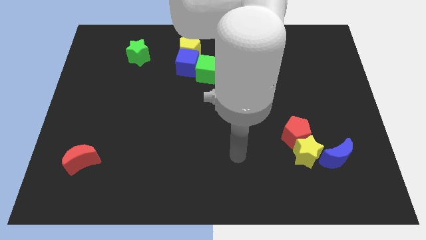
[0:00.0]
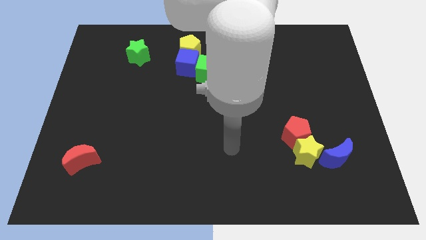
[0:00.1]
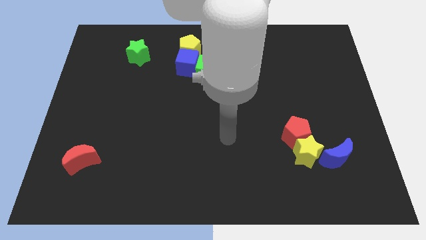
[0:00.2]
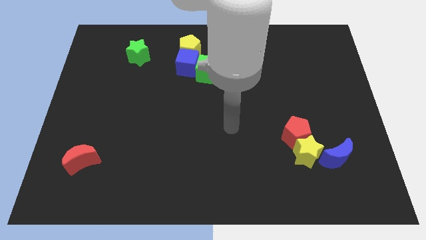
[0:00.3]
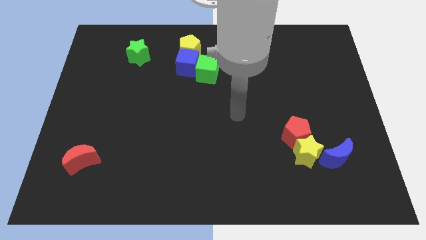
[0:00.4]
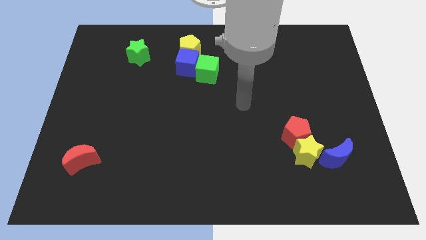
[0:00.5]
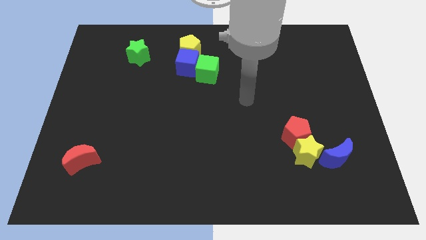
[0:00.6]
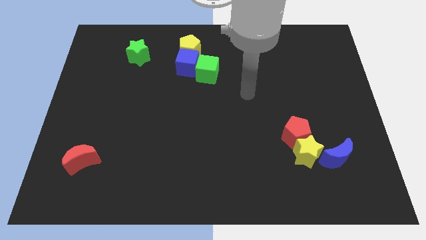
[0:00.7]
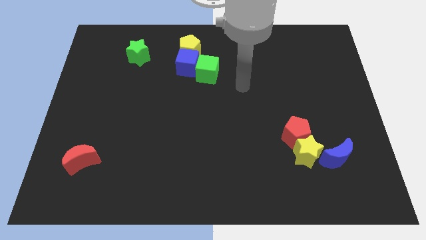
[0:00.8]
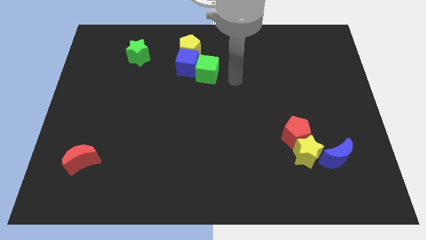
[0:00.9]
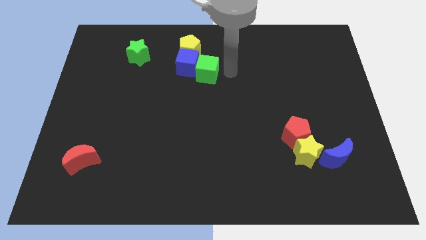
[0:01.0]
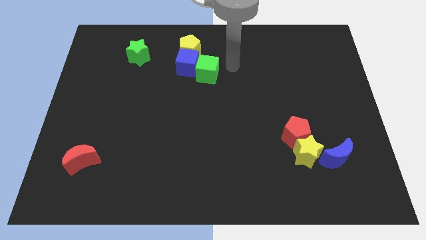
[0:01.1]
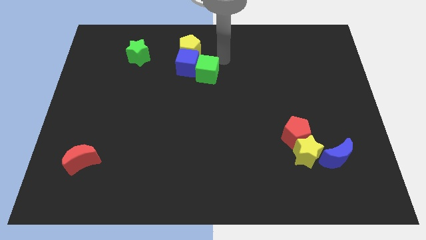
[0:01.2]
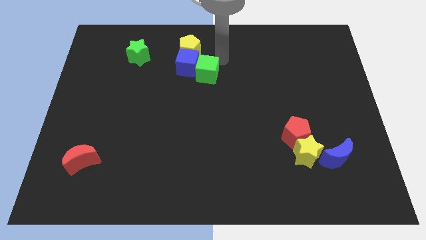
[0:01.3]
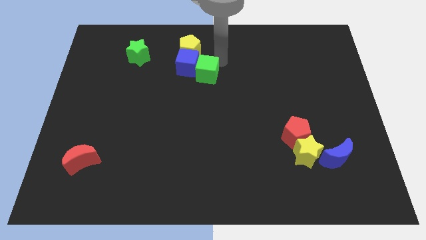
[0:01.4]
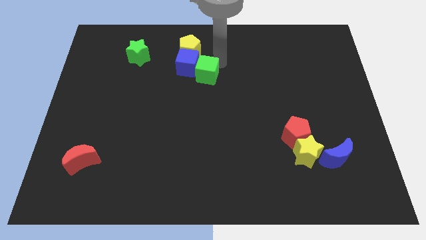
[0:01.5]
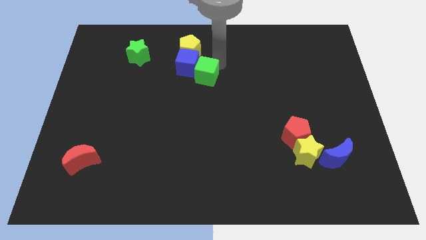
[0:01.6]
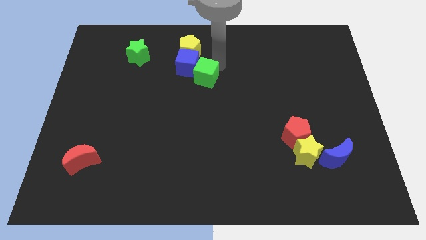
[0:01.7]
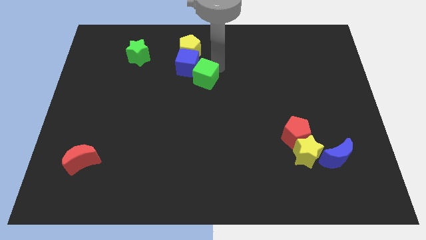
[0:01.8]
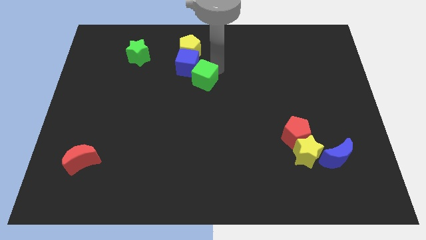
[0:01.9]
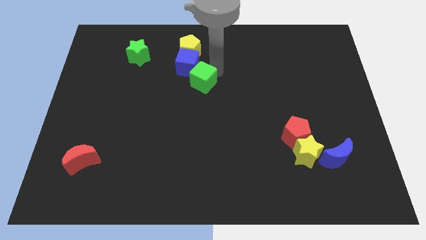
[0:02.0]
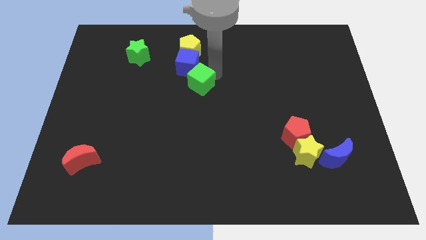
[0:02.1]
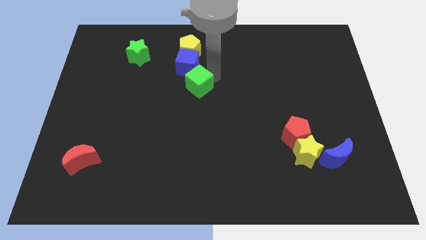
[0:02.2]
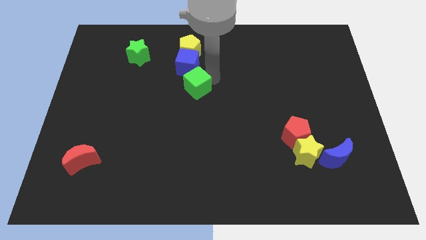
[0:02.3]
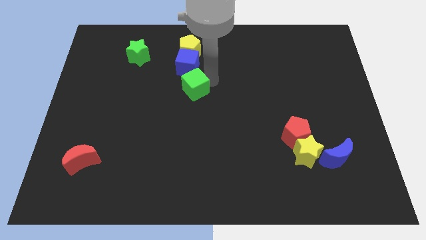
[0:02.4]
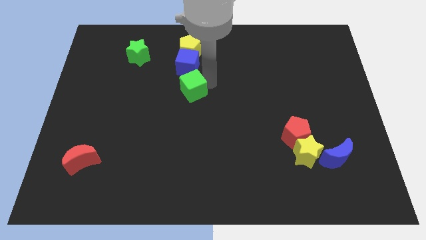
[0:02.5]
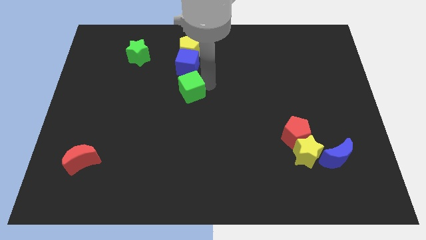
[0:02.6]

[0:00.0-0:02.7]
move the green cube down and left a little bit

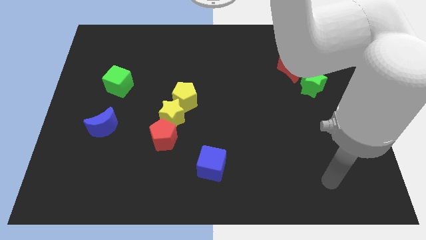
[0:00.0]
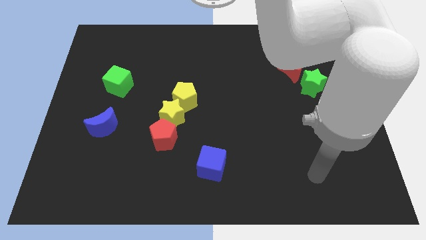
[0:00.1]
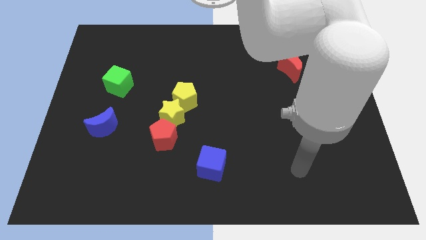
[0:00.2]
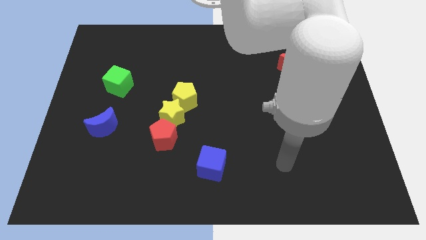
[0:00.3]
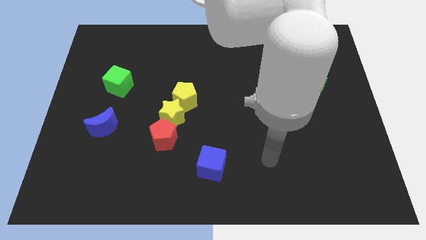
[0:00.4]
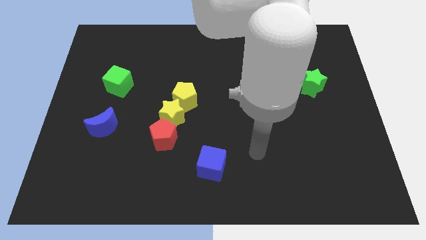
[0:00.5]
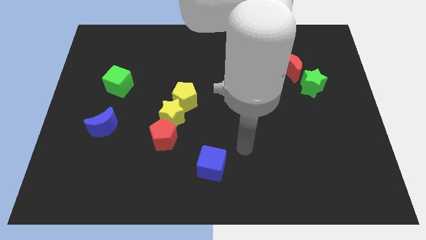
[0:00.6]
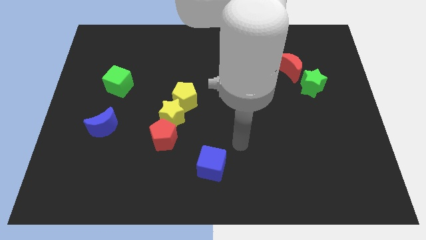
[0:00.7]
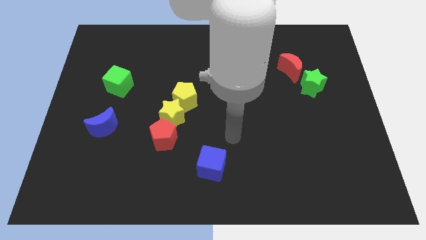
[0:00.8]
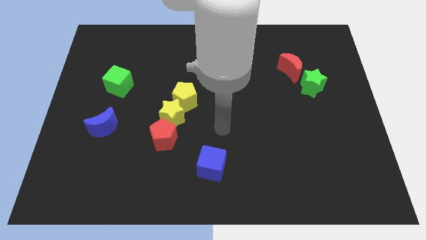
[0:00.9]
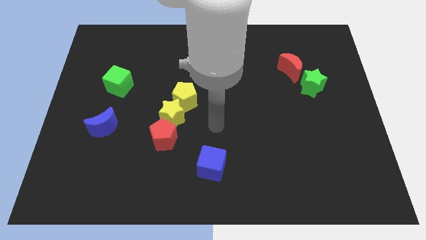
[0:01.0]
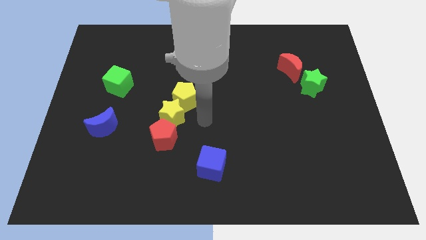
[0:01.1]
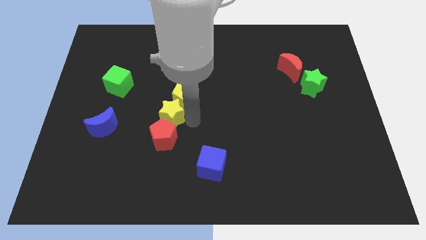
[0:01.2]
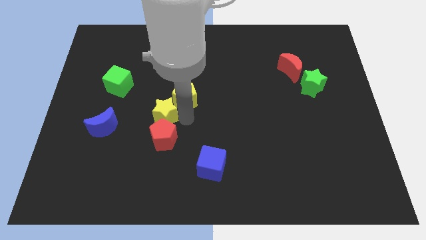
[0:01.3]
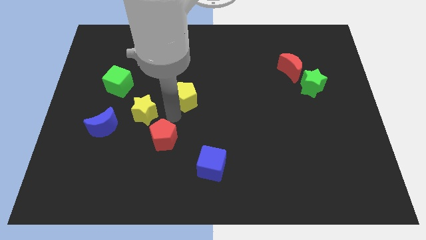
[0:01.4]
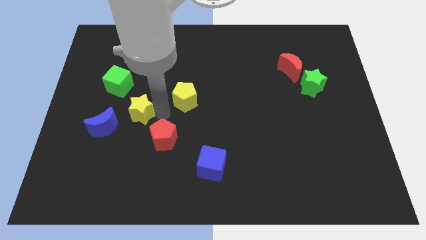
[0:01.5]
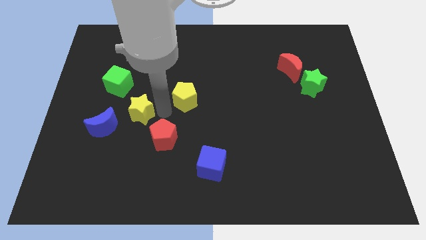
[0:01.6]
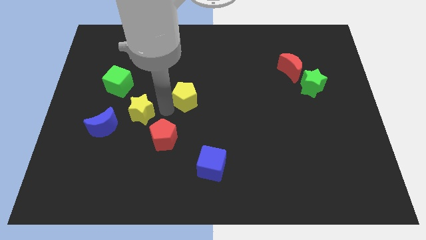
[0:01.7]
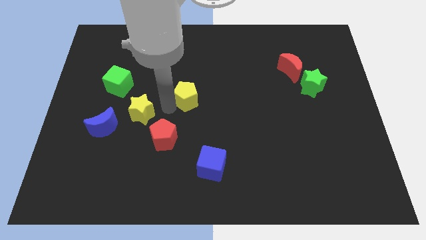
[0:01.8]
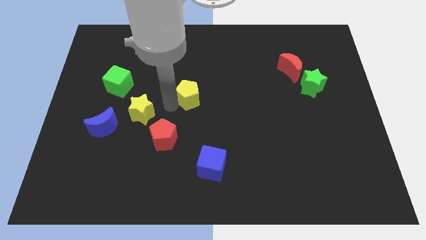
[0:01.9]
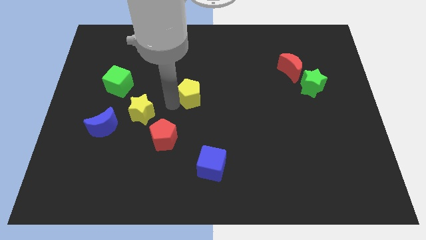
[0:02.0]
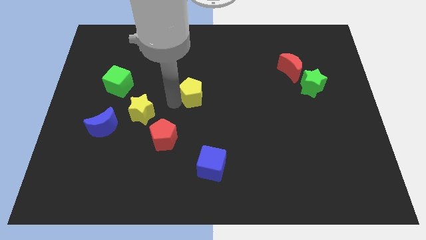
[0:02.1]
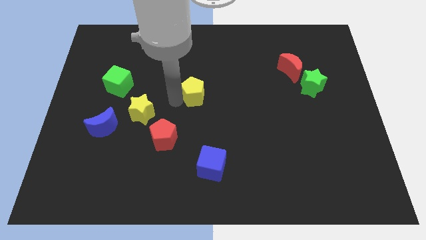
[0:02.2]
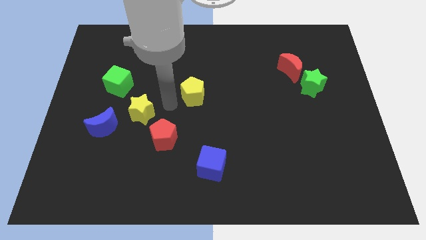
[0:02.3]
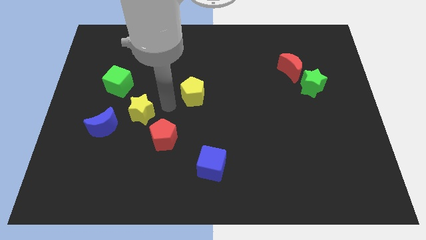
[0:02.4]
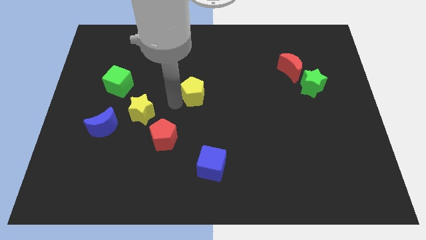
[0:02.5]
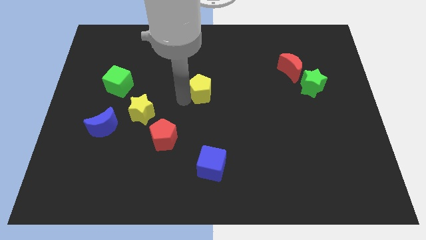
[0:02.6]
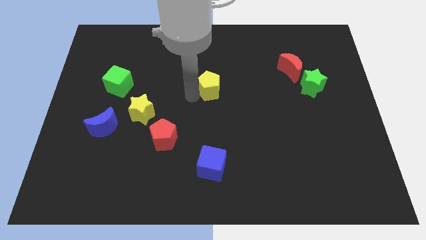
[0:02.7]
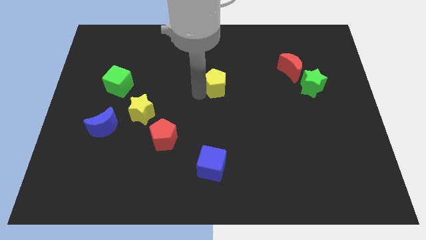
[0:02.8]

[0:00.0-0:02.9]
push the yellow pentagon diagonally upwards and right a little

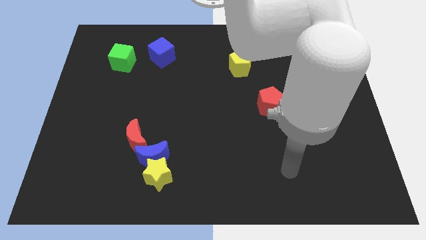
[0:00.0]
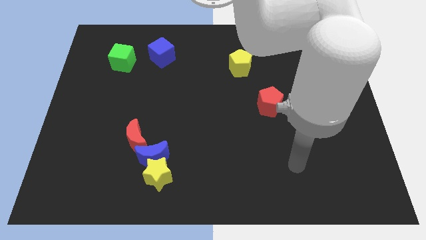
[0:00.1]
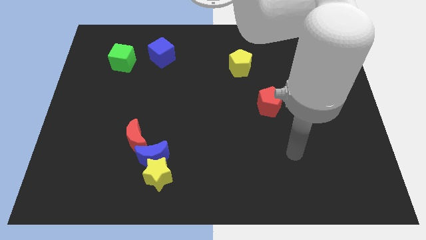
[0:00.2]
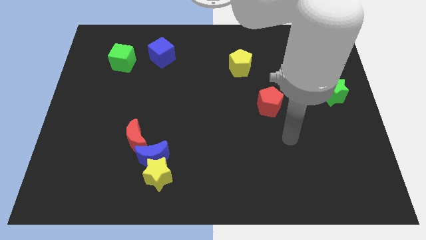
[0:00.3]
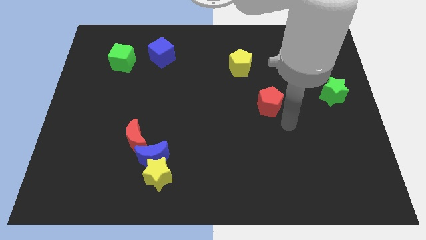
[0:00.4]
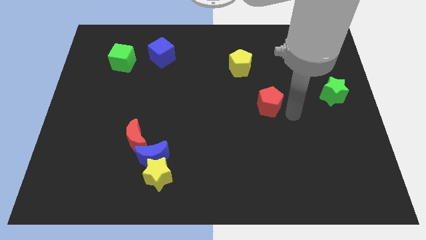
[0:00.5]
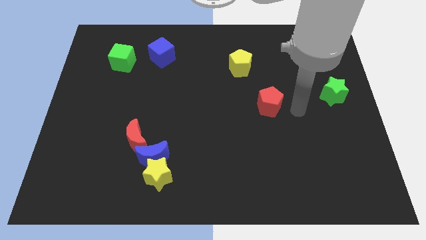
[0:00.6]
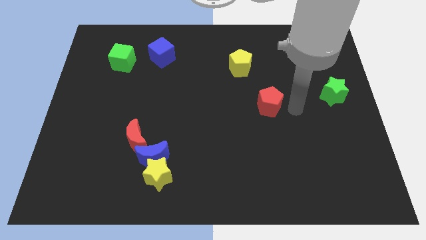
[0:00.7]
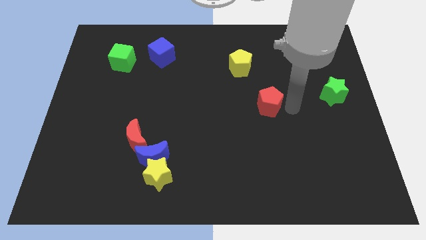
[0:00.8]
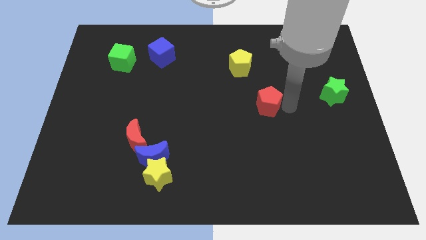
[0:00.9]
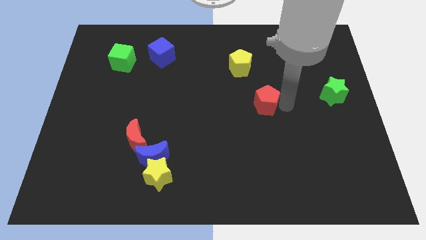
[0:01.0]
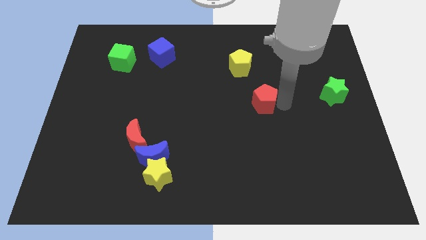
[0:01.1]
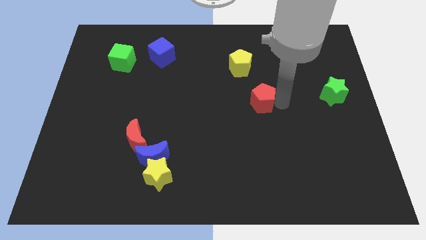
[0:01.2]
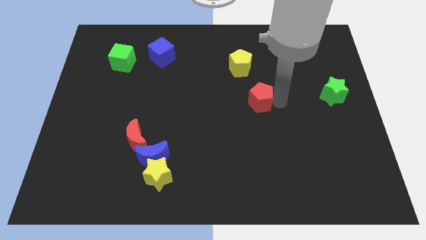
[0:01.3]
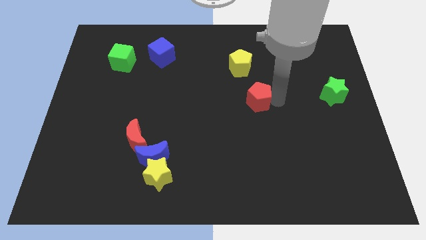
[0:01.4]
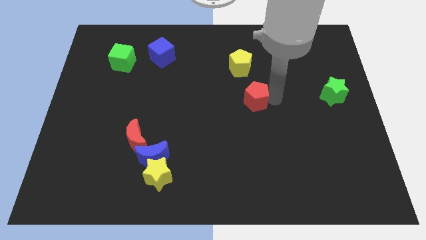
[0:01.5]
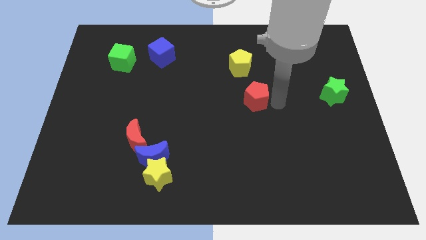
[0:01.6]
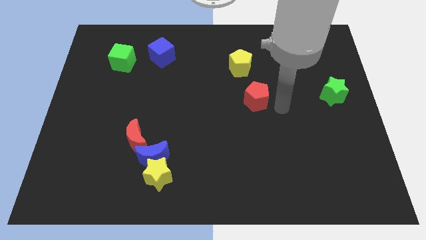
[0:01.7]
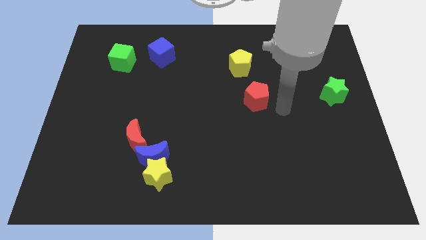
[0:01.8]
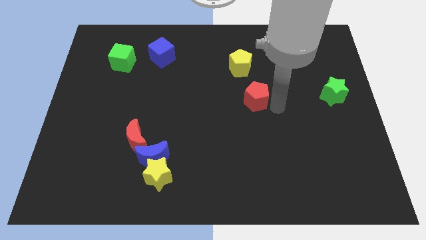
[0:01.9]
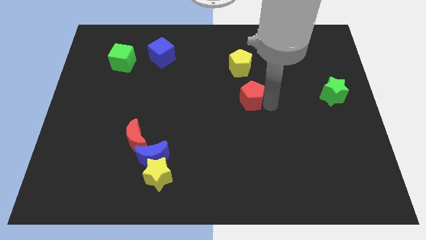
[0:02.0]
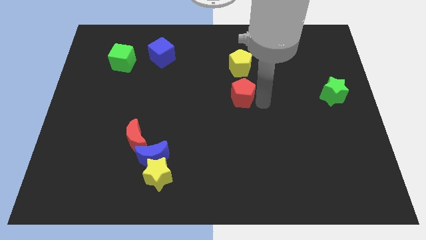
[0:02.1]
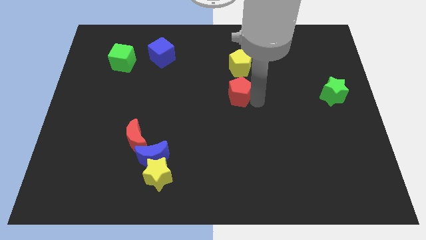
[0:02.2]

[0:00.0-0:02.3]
slightly push the red pentagon up and then left
